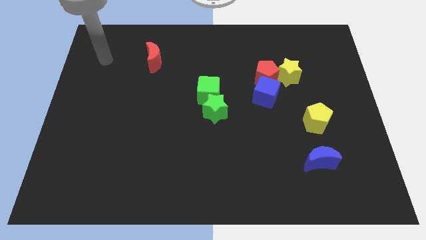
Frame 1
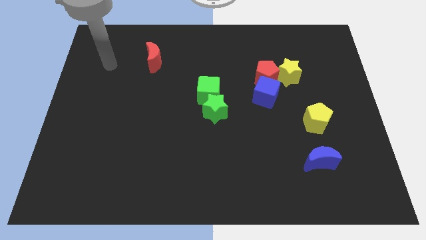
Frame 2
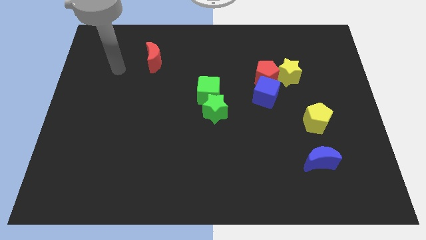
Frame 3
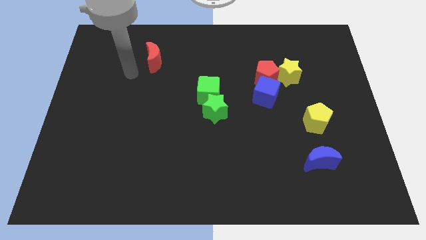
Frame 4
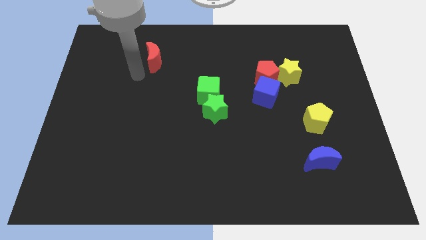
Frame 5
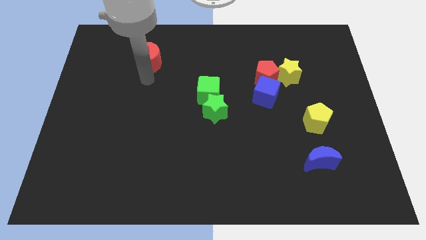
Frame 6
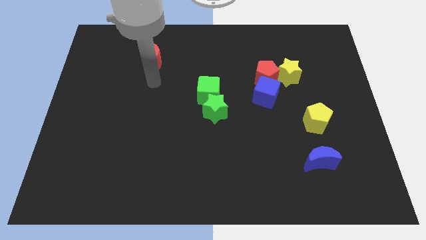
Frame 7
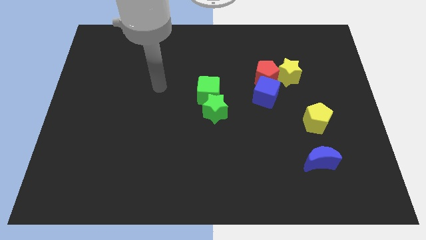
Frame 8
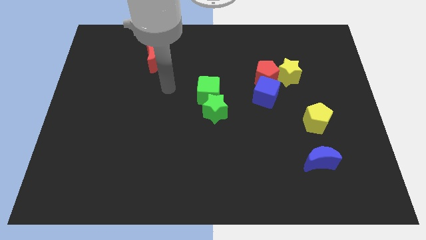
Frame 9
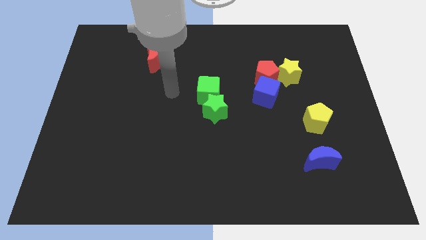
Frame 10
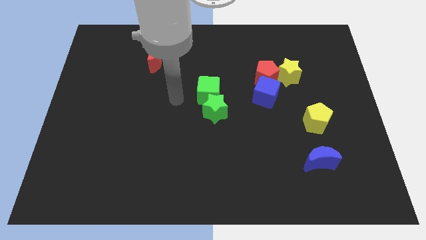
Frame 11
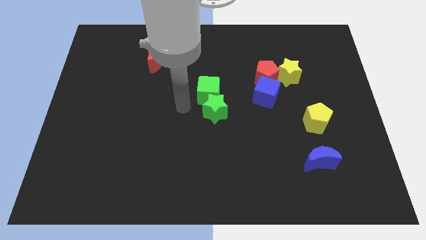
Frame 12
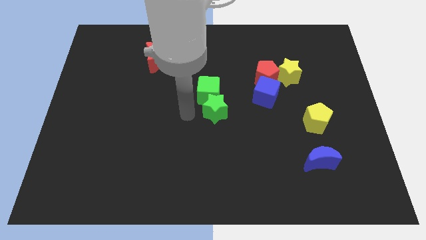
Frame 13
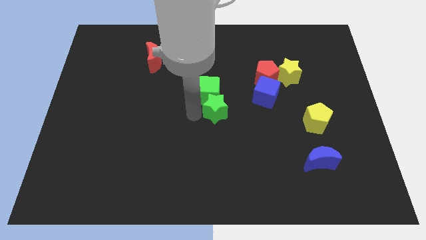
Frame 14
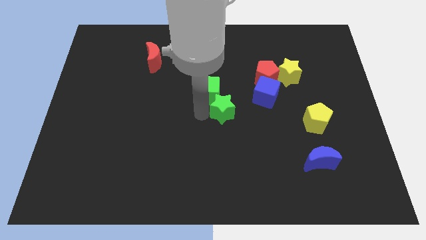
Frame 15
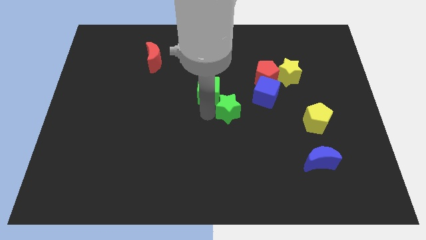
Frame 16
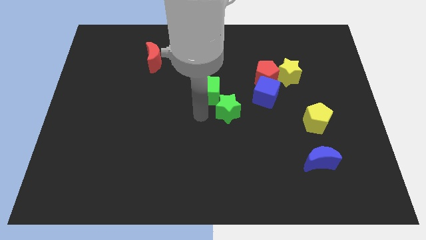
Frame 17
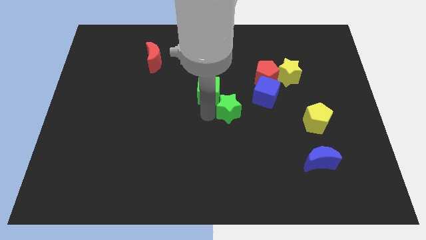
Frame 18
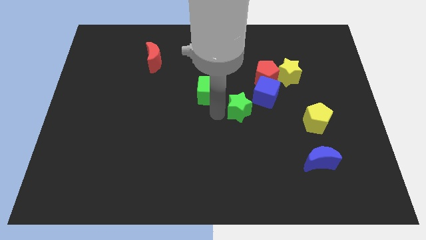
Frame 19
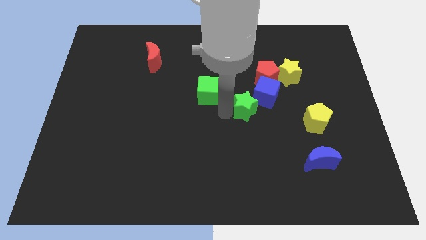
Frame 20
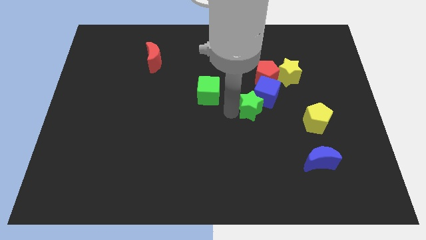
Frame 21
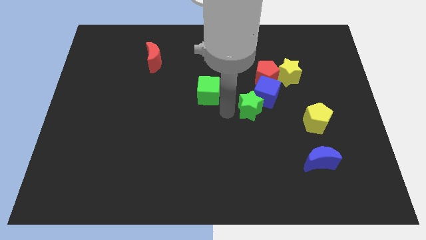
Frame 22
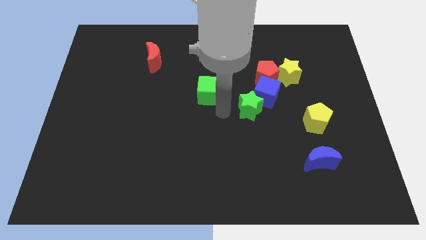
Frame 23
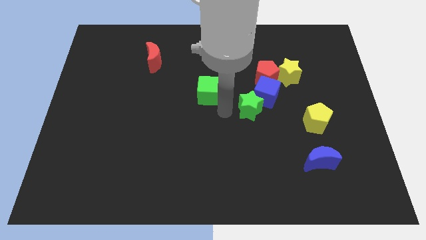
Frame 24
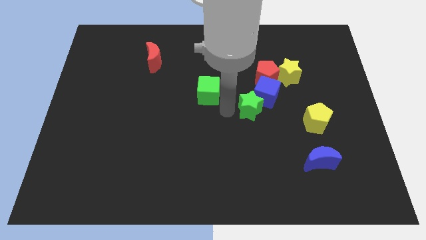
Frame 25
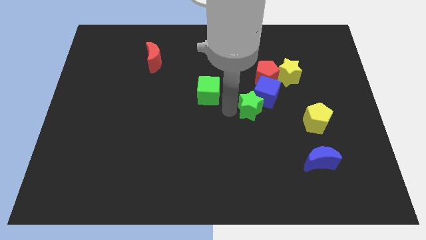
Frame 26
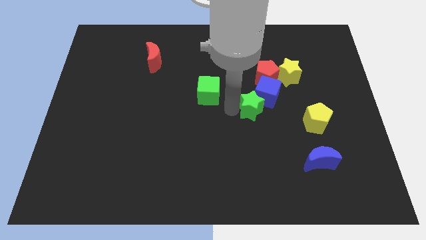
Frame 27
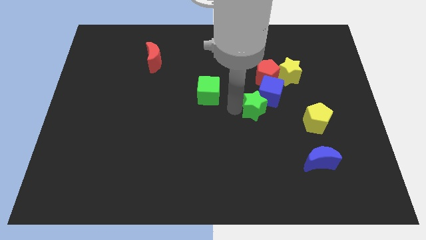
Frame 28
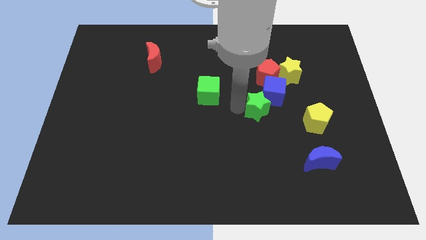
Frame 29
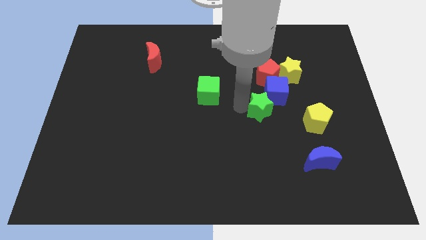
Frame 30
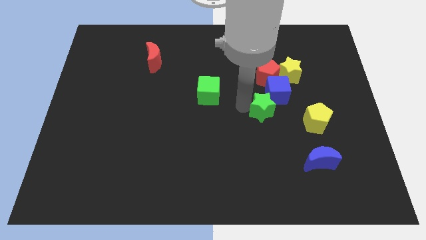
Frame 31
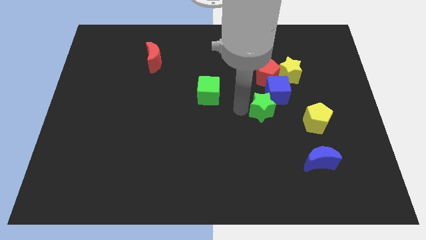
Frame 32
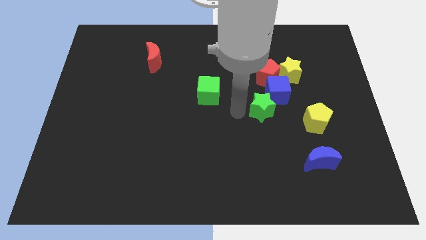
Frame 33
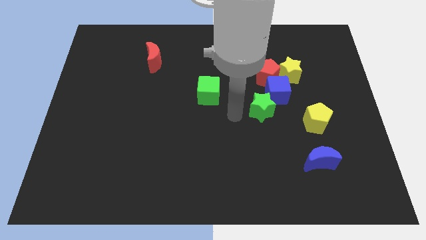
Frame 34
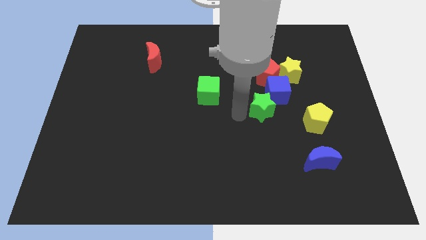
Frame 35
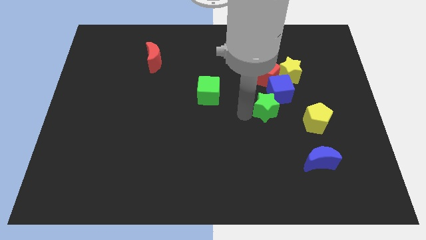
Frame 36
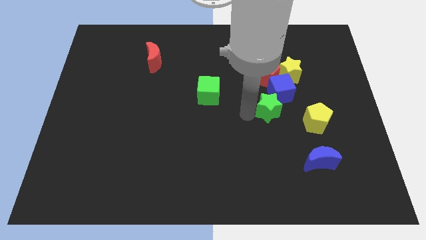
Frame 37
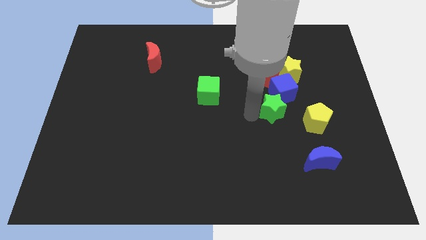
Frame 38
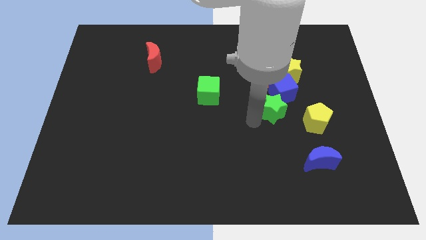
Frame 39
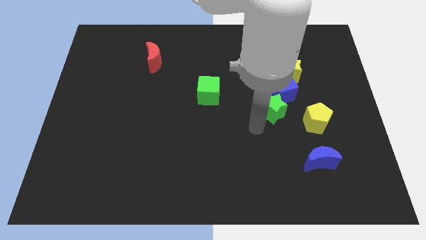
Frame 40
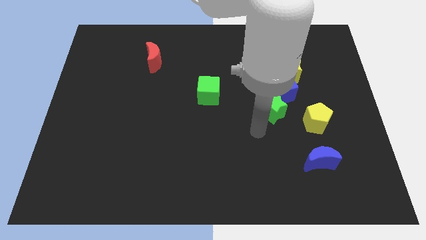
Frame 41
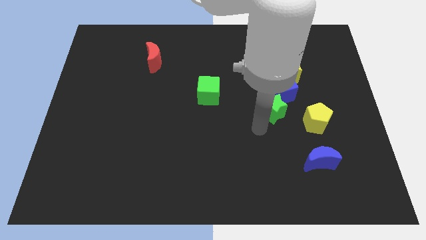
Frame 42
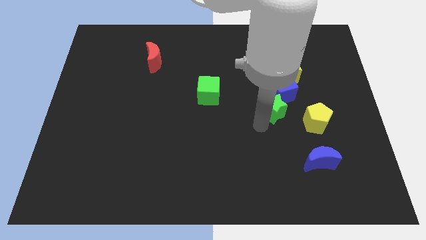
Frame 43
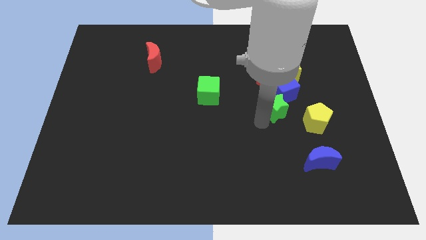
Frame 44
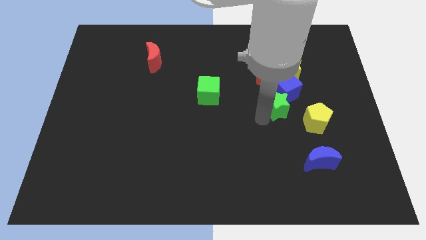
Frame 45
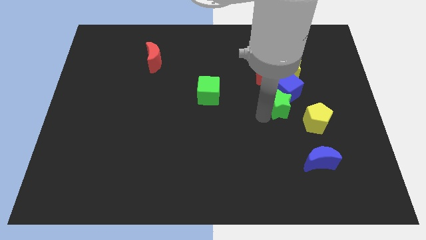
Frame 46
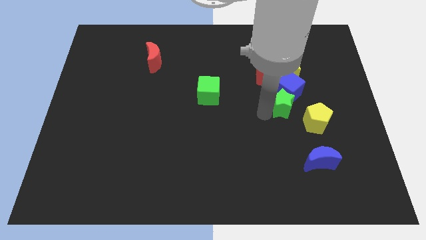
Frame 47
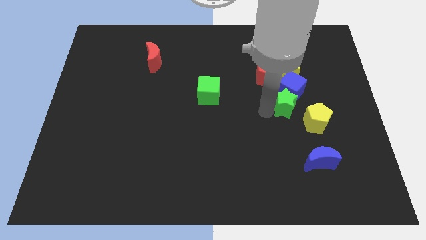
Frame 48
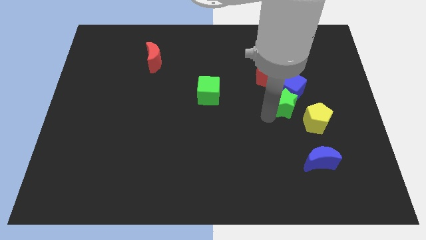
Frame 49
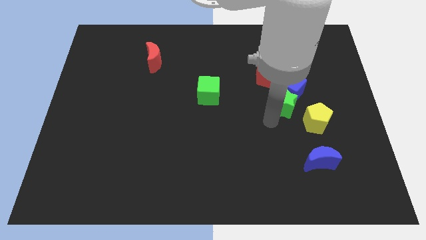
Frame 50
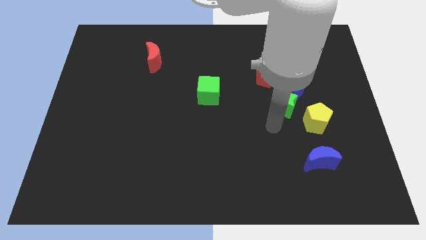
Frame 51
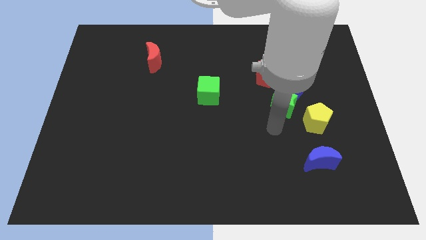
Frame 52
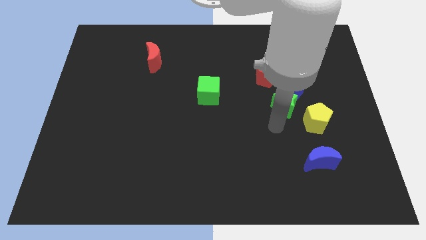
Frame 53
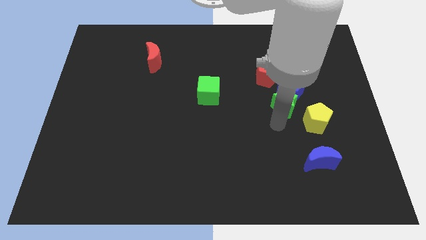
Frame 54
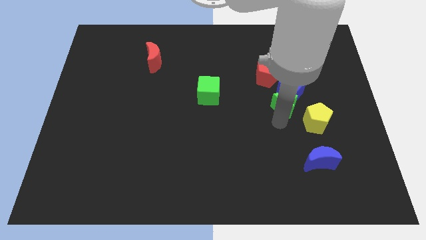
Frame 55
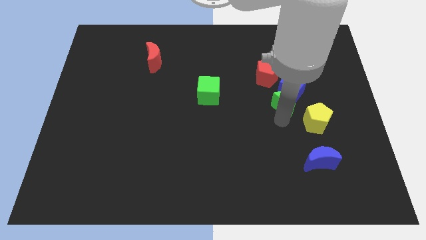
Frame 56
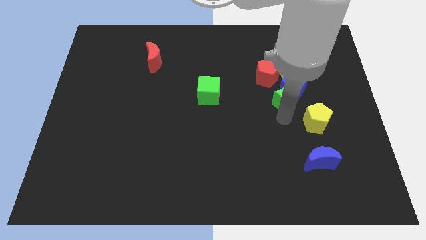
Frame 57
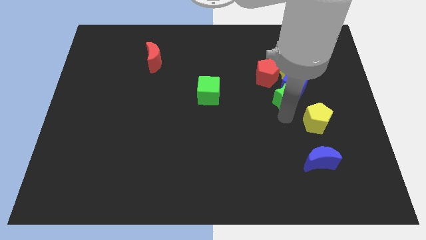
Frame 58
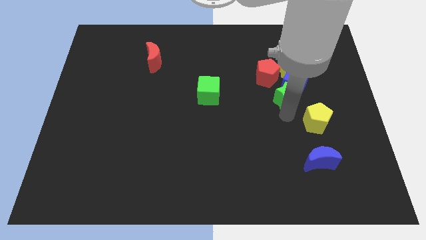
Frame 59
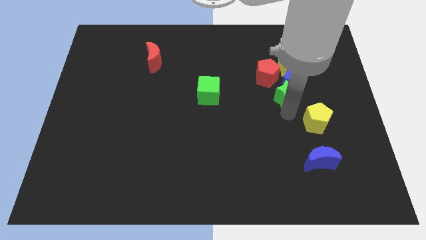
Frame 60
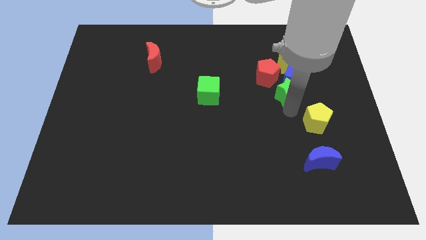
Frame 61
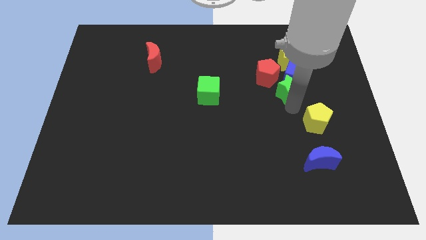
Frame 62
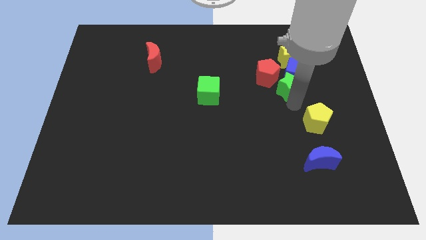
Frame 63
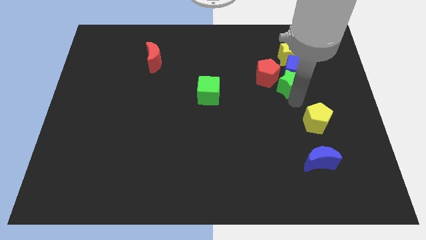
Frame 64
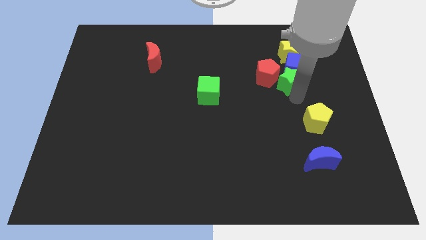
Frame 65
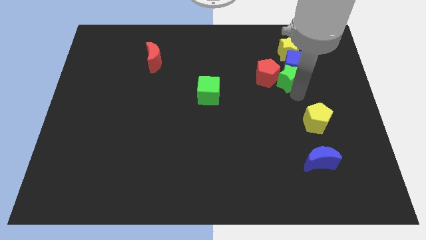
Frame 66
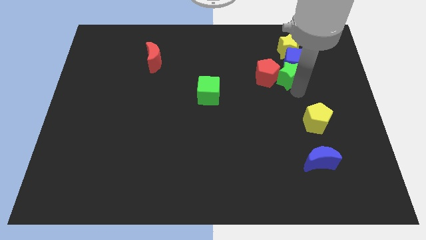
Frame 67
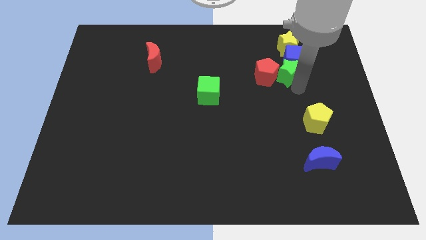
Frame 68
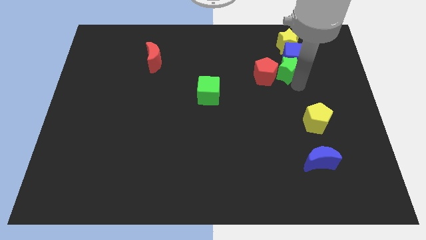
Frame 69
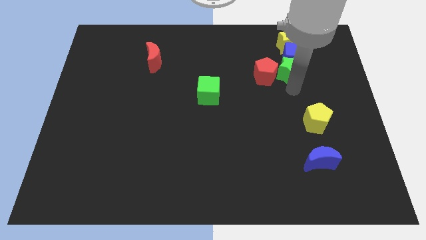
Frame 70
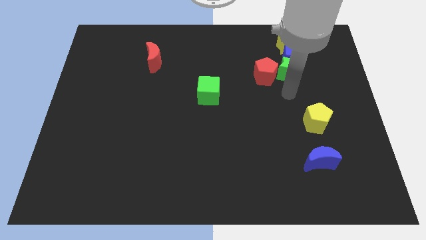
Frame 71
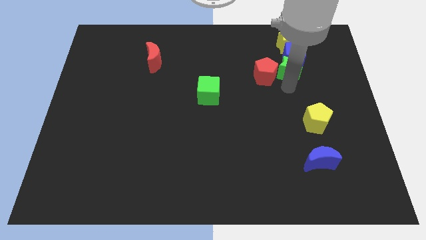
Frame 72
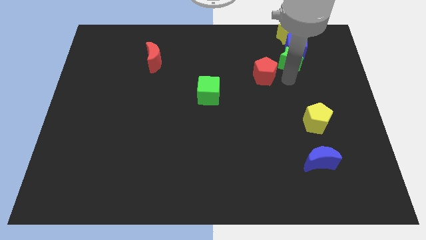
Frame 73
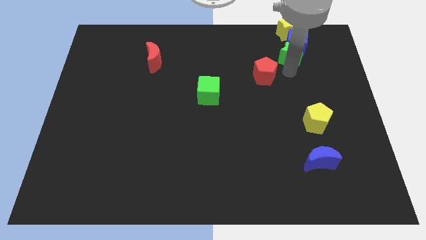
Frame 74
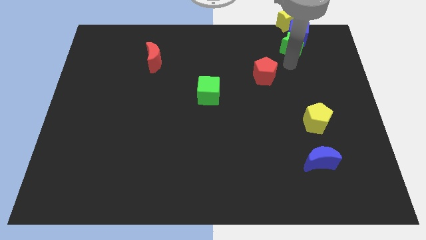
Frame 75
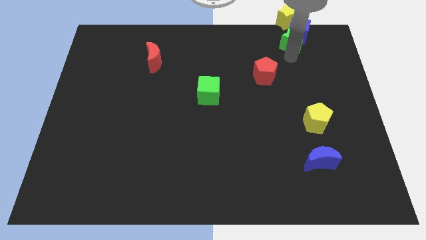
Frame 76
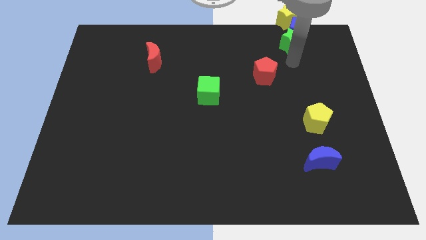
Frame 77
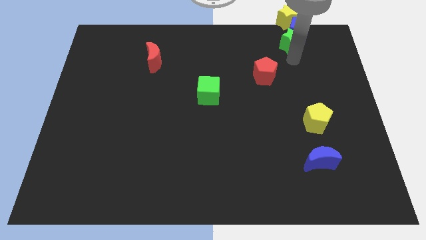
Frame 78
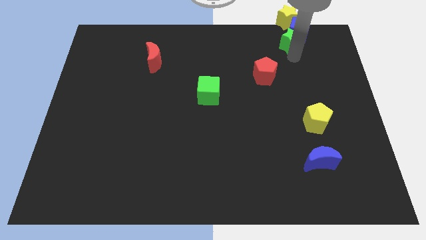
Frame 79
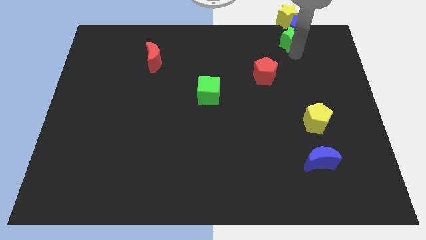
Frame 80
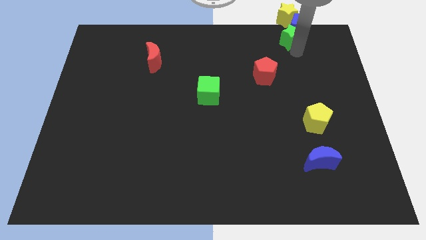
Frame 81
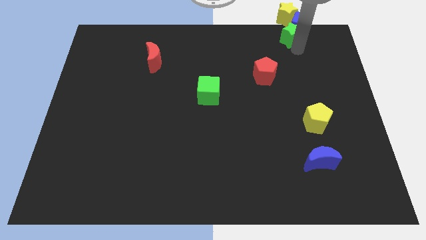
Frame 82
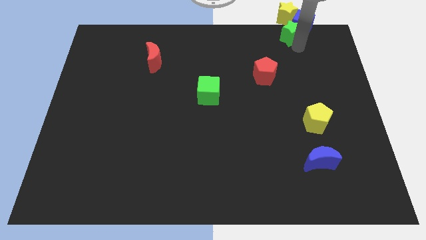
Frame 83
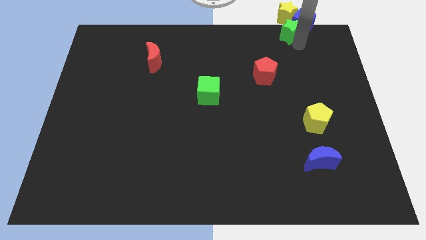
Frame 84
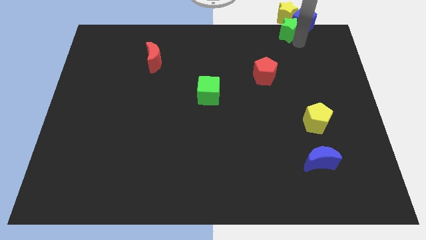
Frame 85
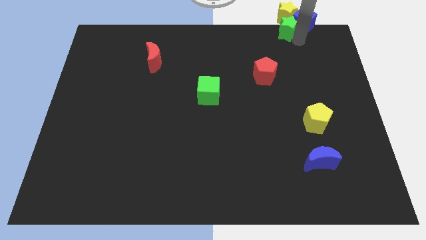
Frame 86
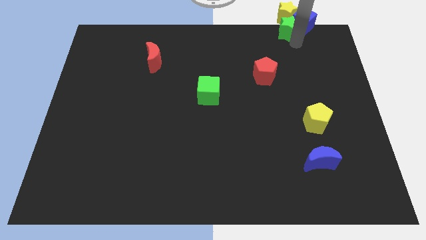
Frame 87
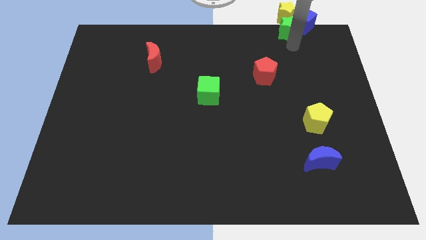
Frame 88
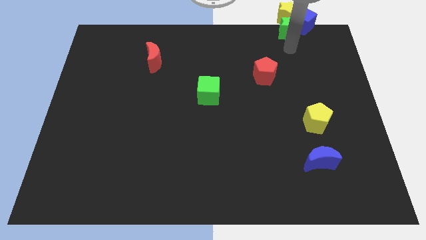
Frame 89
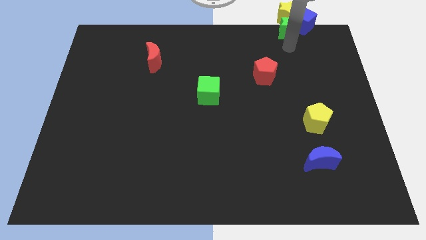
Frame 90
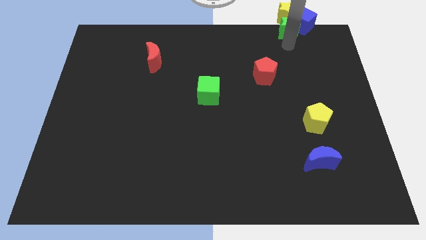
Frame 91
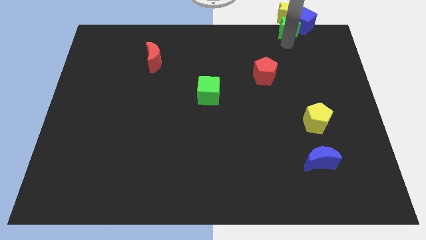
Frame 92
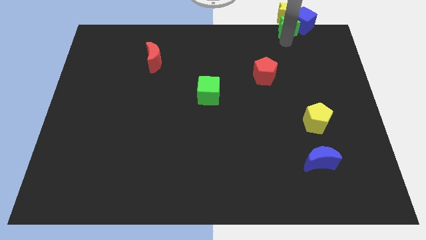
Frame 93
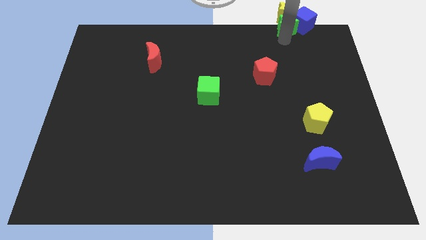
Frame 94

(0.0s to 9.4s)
push the green star to the yellow star
